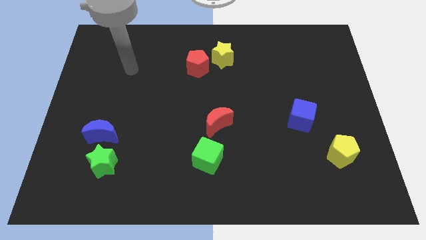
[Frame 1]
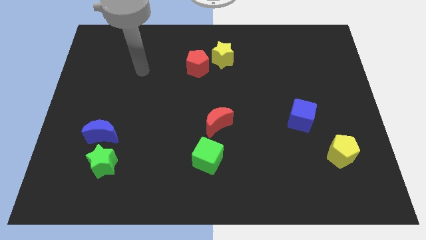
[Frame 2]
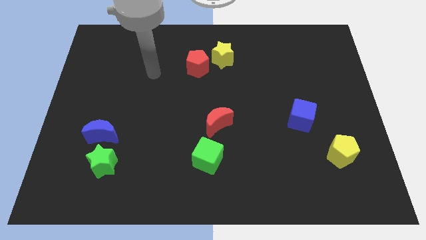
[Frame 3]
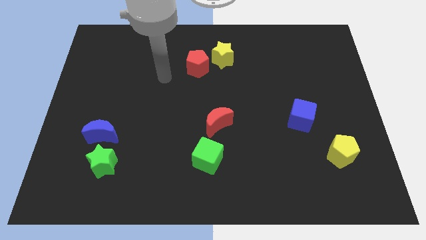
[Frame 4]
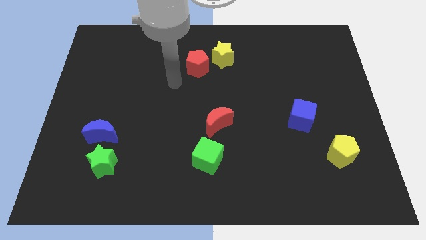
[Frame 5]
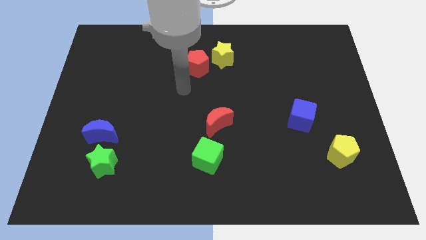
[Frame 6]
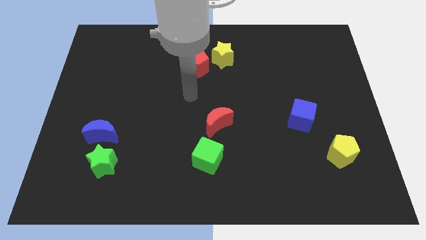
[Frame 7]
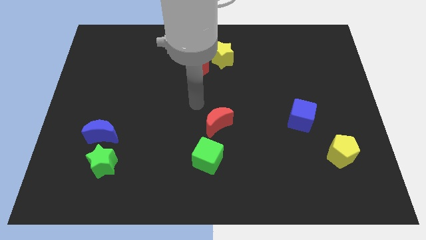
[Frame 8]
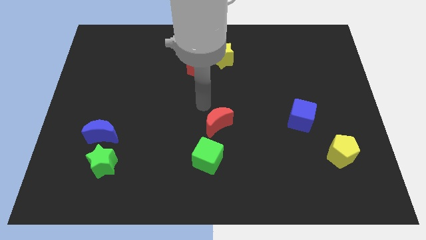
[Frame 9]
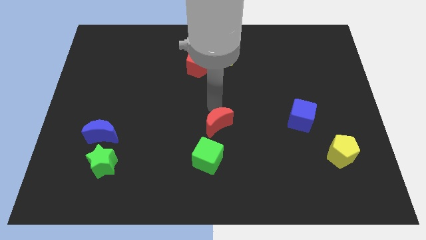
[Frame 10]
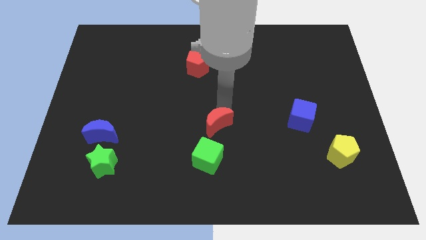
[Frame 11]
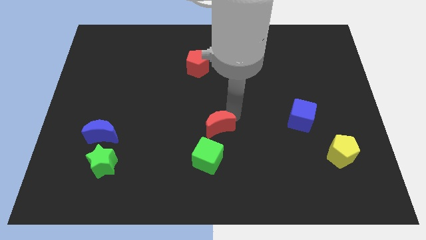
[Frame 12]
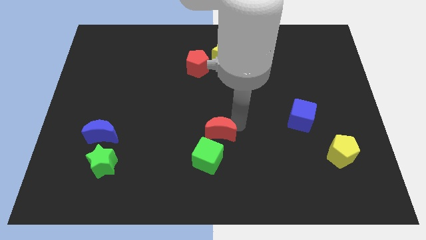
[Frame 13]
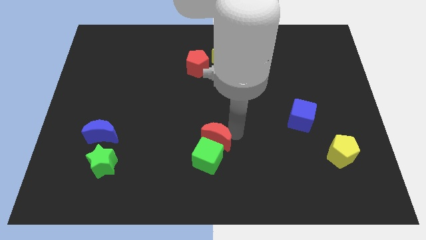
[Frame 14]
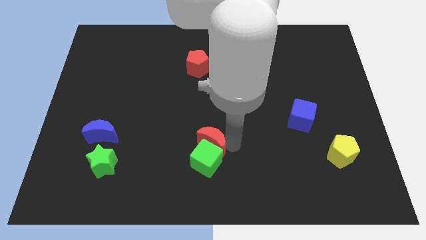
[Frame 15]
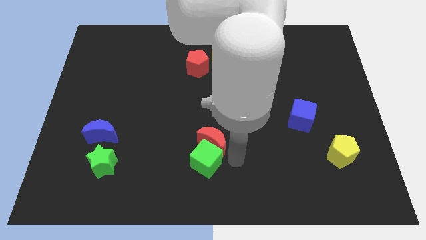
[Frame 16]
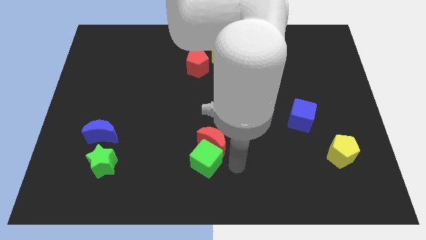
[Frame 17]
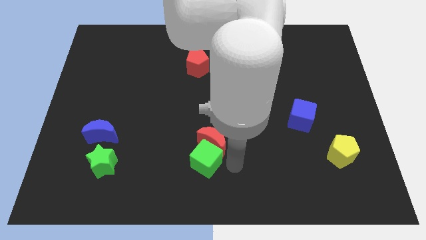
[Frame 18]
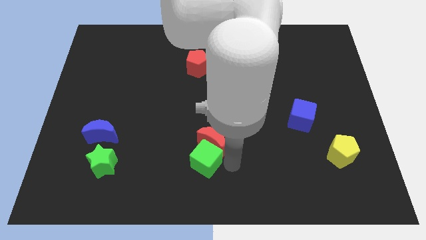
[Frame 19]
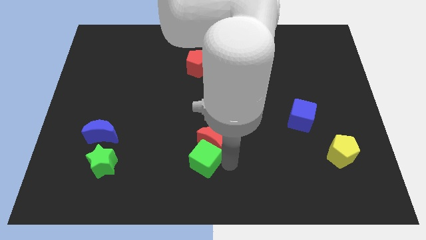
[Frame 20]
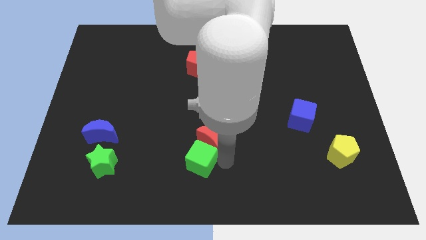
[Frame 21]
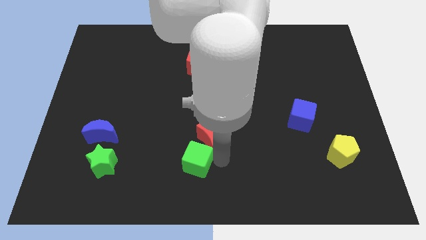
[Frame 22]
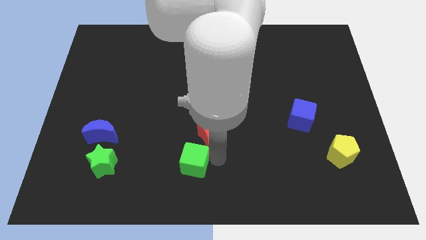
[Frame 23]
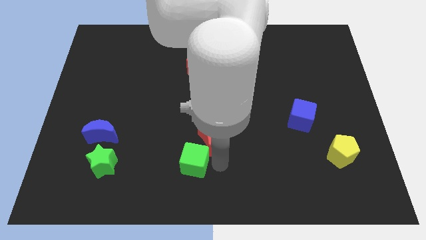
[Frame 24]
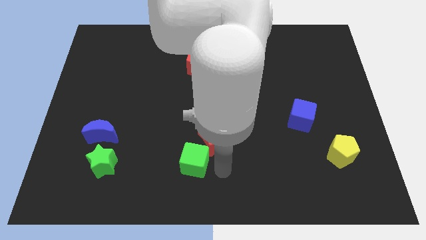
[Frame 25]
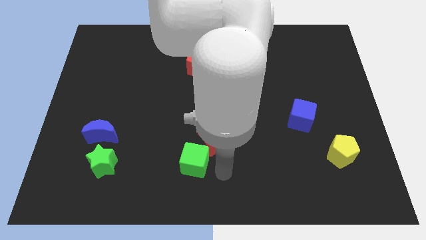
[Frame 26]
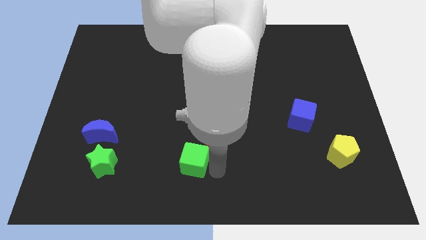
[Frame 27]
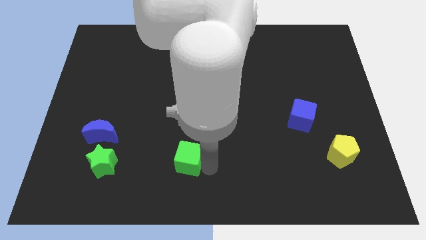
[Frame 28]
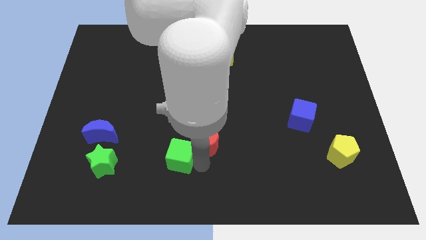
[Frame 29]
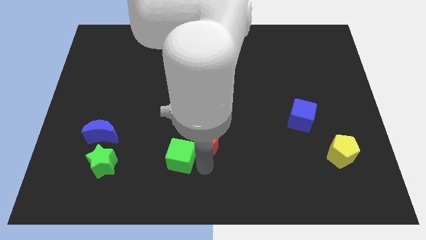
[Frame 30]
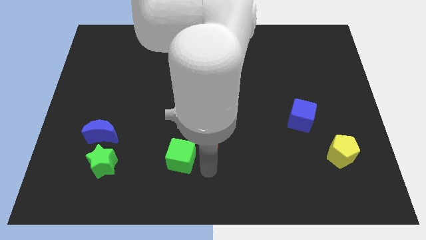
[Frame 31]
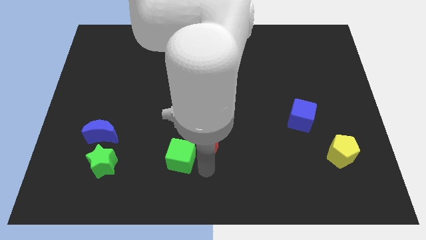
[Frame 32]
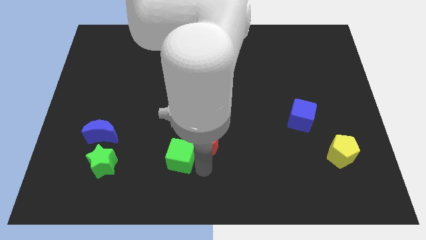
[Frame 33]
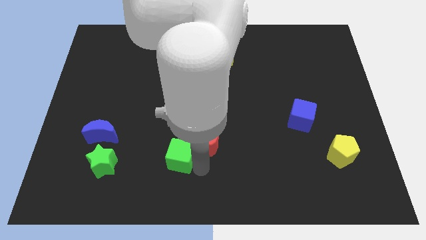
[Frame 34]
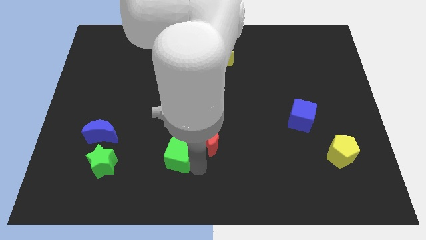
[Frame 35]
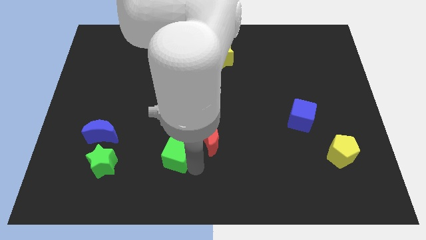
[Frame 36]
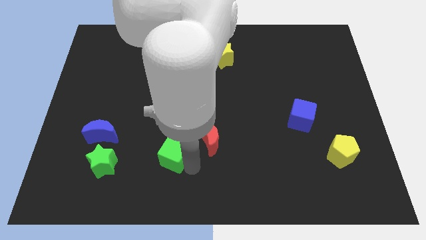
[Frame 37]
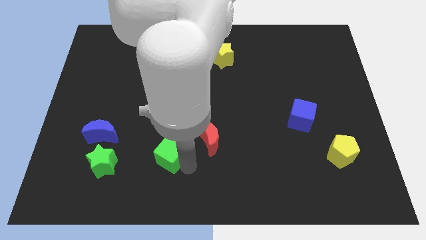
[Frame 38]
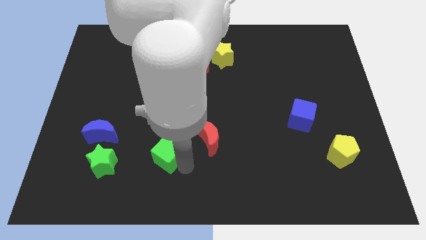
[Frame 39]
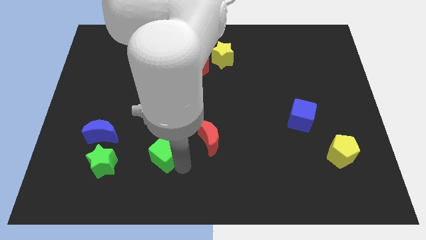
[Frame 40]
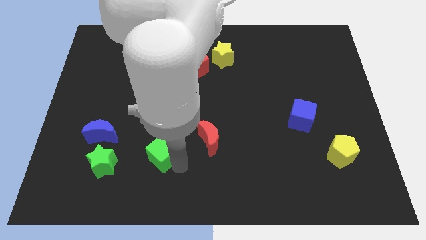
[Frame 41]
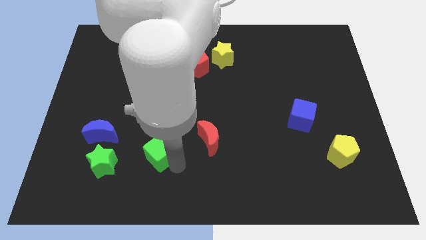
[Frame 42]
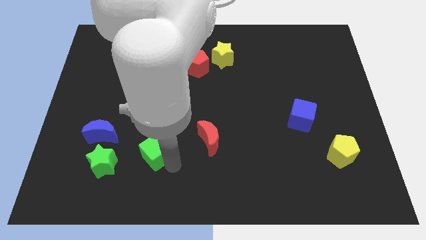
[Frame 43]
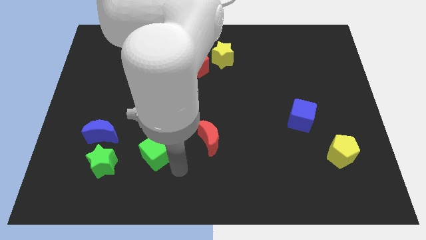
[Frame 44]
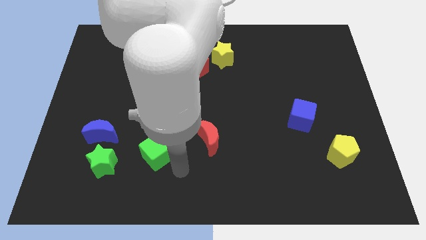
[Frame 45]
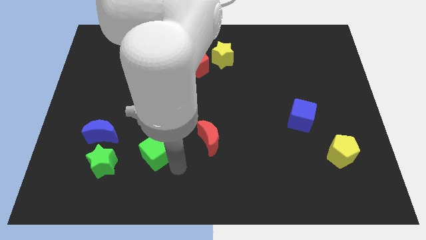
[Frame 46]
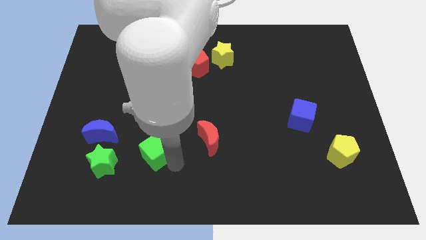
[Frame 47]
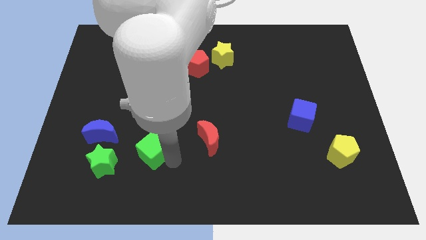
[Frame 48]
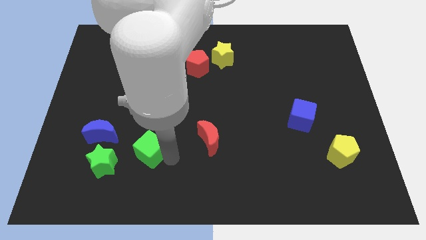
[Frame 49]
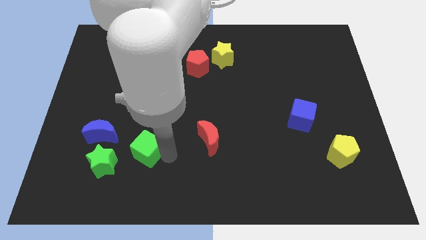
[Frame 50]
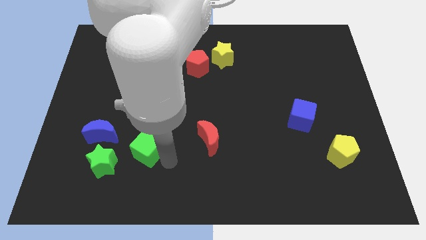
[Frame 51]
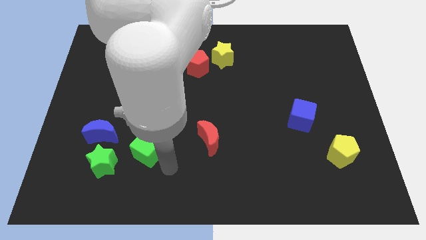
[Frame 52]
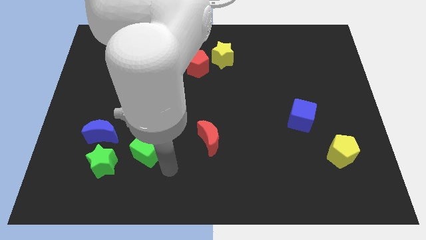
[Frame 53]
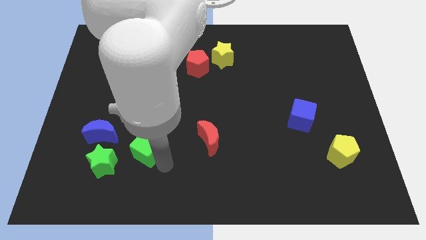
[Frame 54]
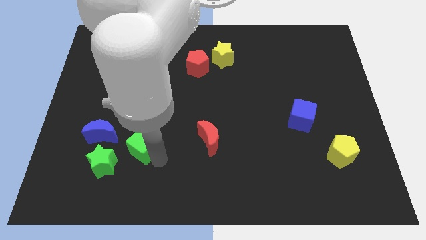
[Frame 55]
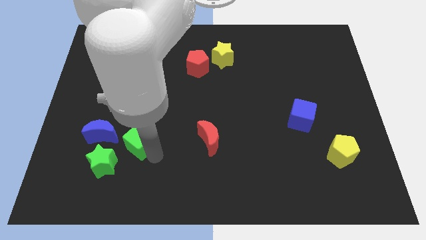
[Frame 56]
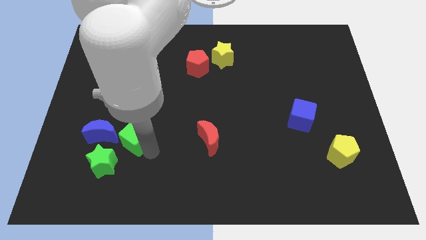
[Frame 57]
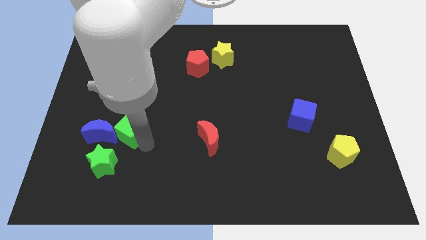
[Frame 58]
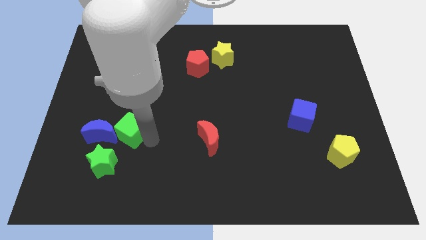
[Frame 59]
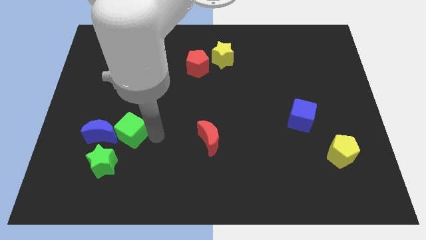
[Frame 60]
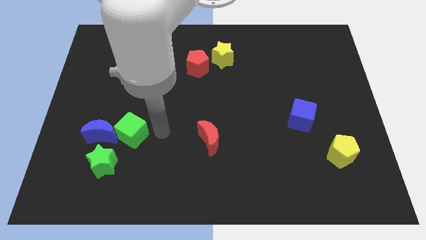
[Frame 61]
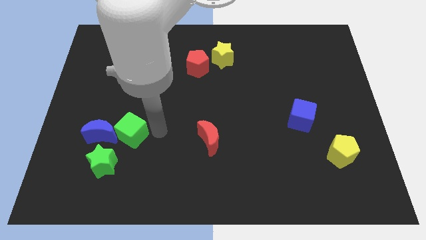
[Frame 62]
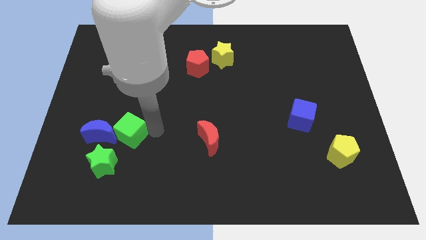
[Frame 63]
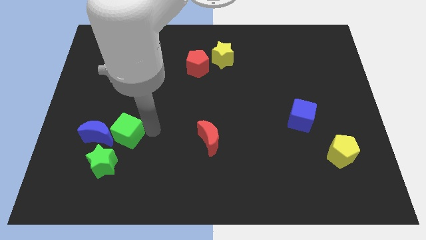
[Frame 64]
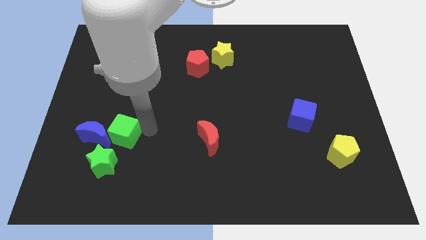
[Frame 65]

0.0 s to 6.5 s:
move the green cube next to the blue moon

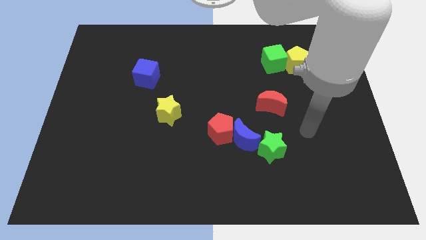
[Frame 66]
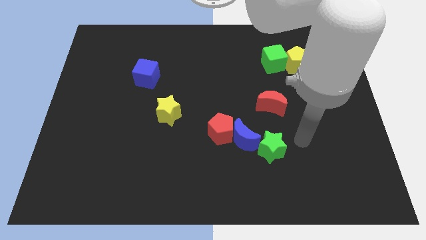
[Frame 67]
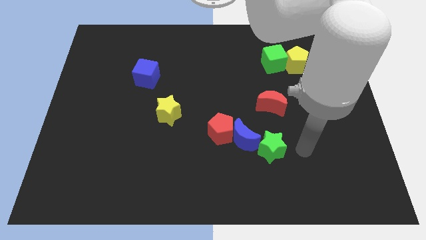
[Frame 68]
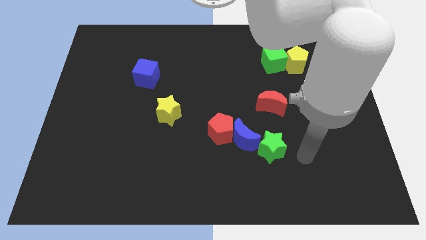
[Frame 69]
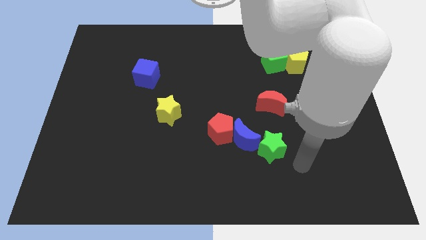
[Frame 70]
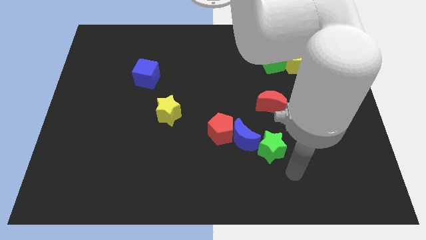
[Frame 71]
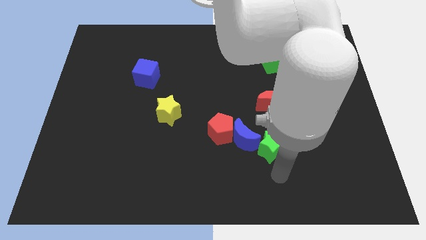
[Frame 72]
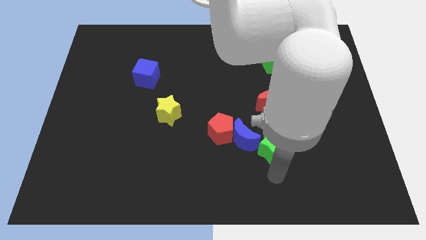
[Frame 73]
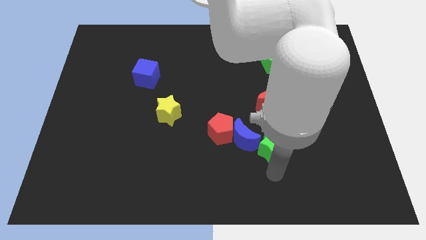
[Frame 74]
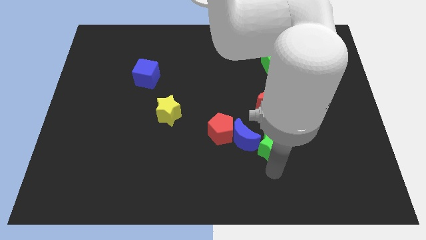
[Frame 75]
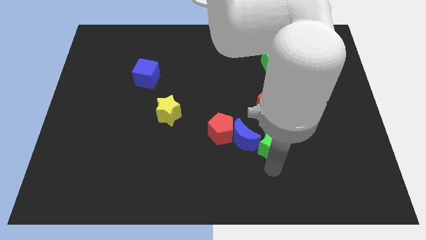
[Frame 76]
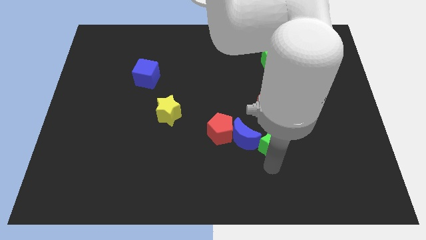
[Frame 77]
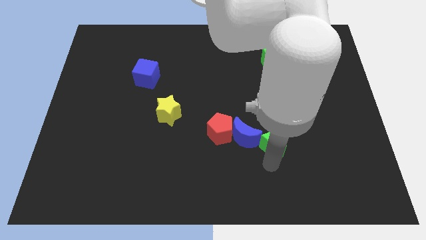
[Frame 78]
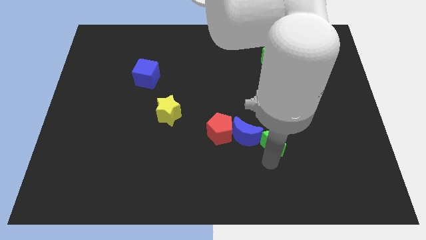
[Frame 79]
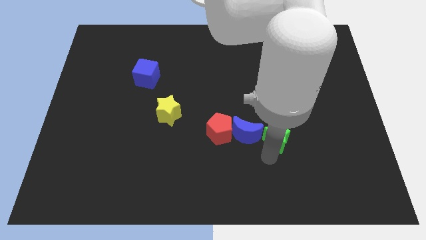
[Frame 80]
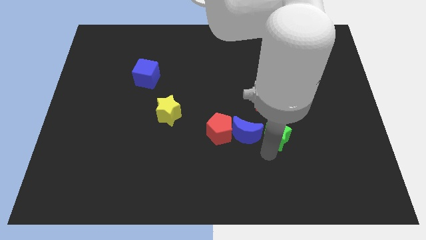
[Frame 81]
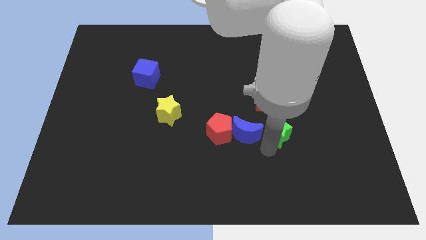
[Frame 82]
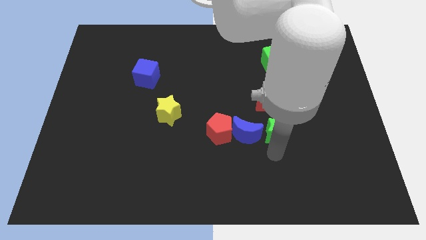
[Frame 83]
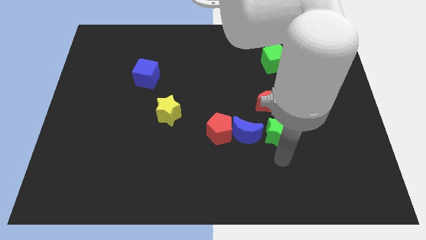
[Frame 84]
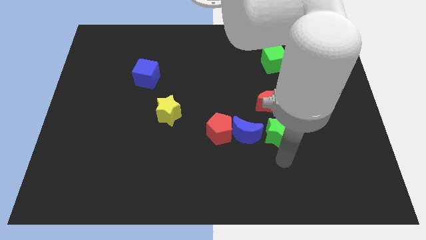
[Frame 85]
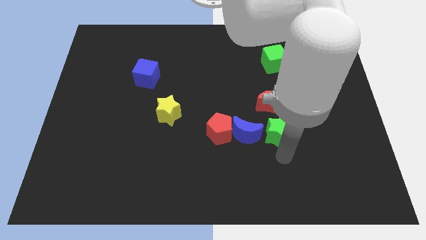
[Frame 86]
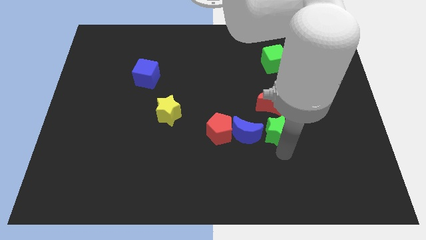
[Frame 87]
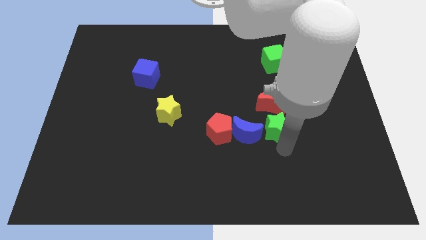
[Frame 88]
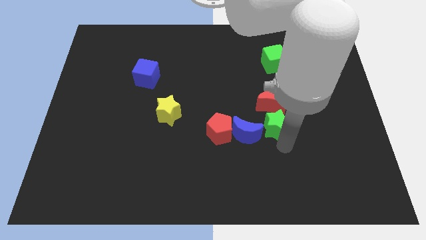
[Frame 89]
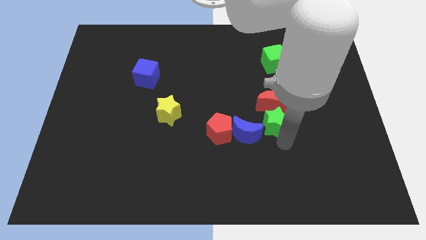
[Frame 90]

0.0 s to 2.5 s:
put the green star next to the red moon
